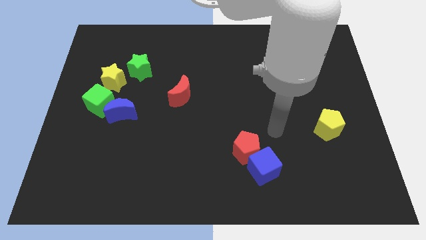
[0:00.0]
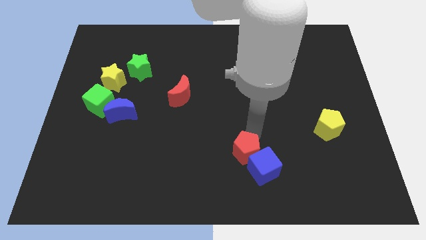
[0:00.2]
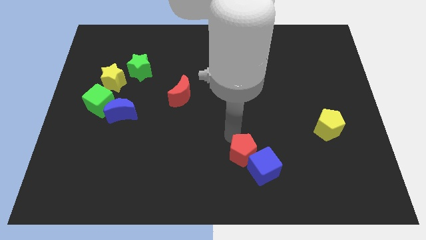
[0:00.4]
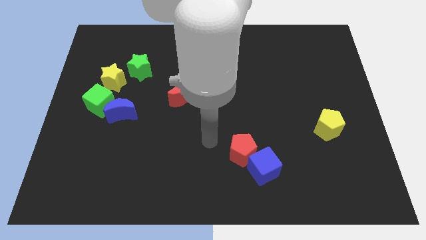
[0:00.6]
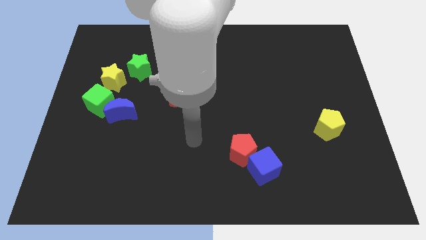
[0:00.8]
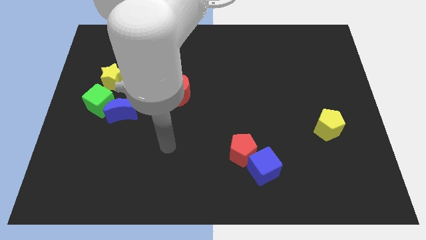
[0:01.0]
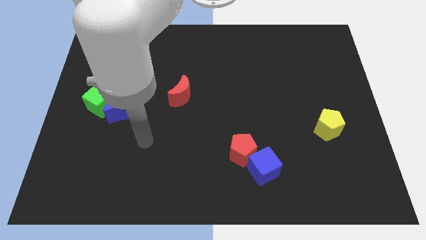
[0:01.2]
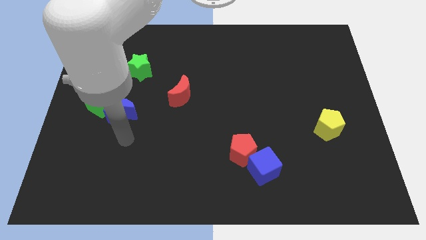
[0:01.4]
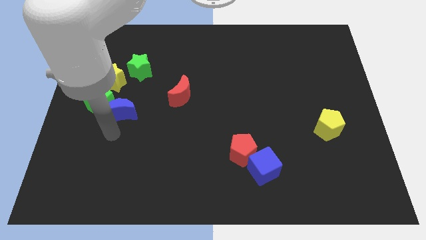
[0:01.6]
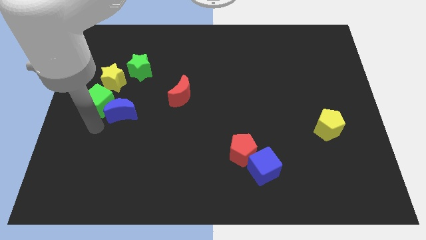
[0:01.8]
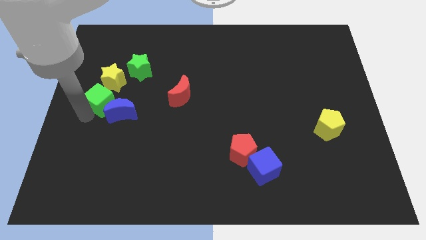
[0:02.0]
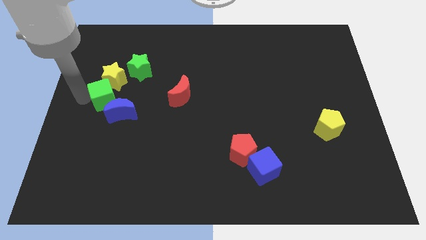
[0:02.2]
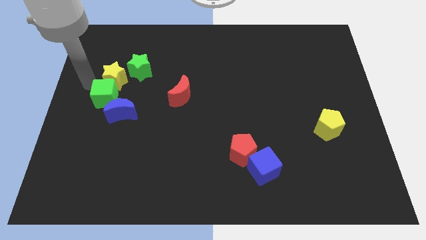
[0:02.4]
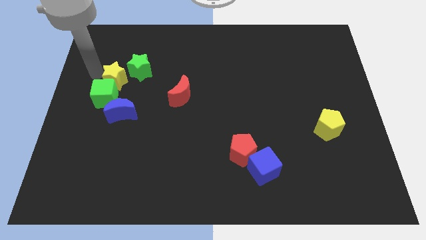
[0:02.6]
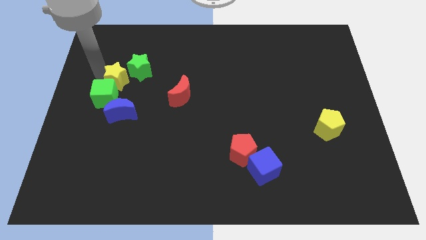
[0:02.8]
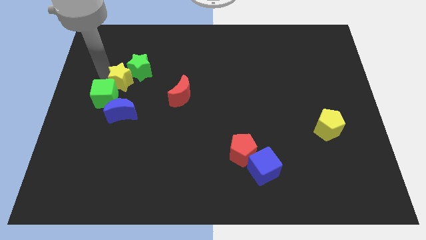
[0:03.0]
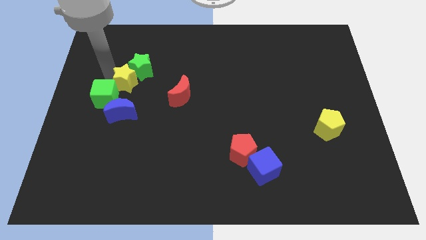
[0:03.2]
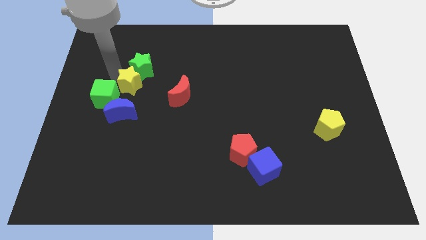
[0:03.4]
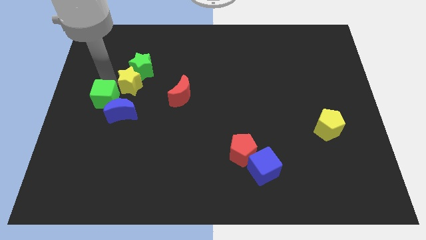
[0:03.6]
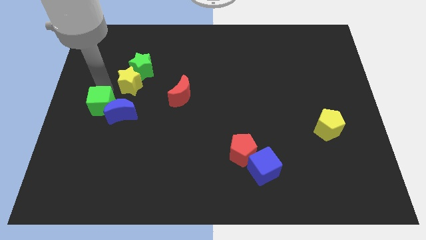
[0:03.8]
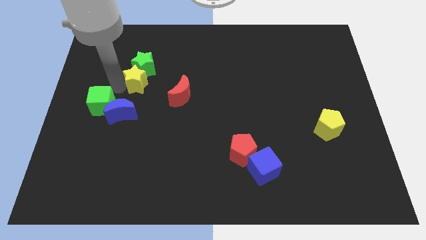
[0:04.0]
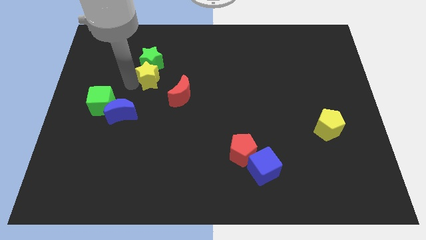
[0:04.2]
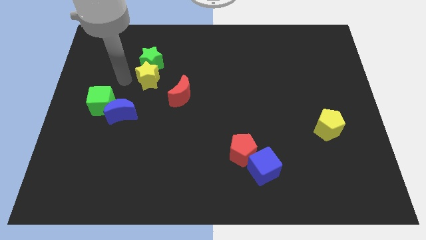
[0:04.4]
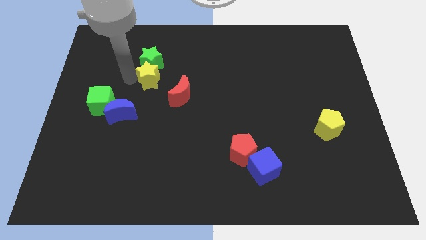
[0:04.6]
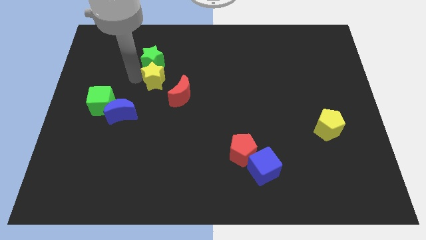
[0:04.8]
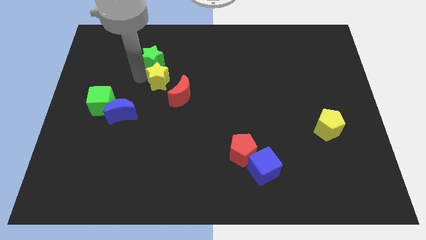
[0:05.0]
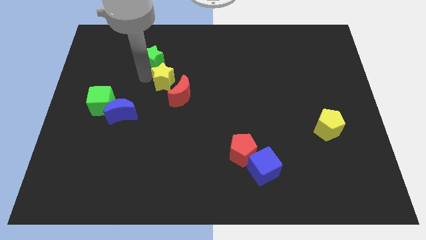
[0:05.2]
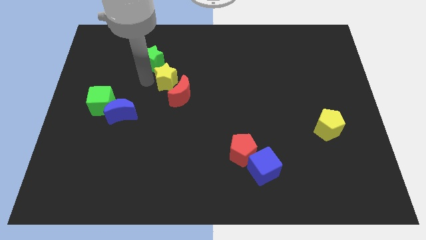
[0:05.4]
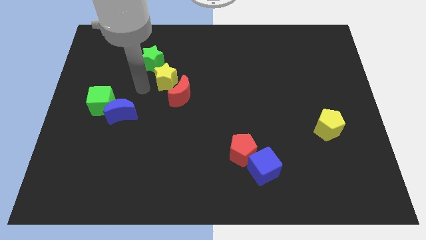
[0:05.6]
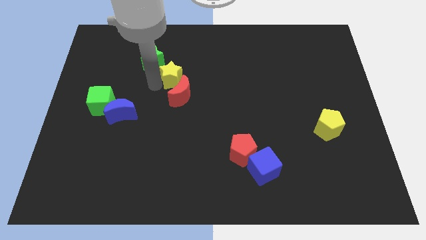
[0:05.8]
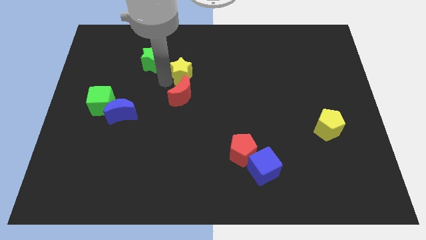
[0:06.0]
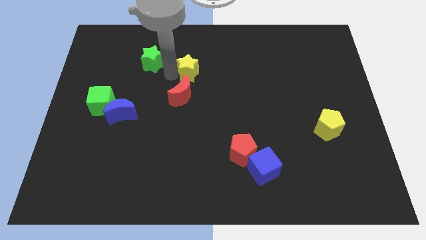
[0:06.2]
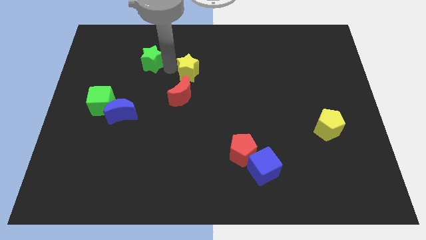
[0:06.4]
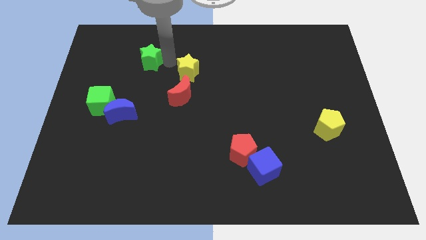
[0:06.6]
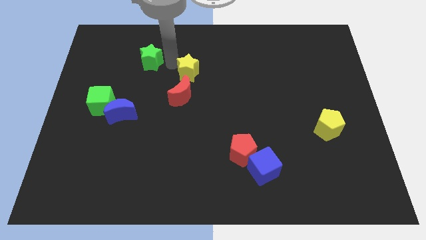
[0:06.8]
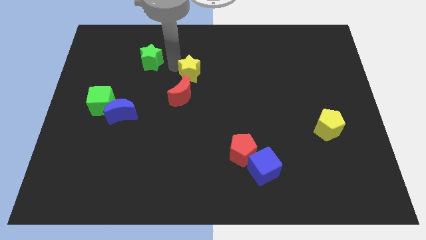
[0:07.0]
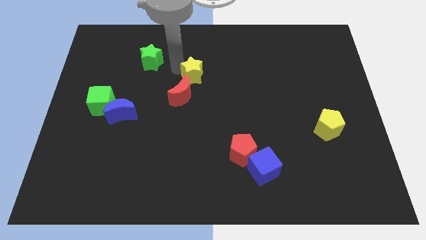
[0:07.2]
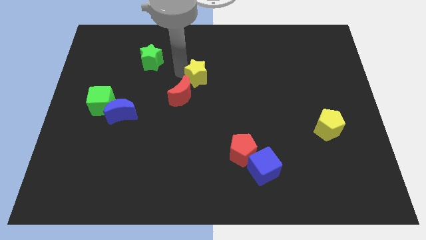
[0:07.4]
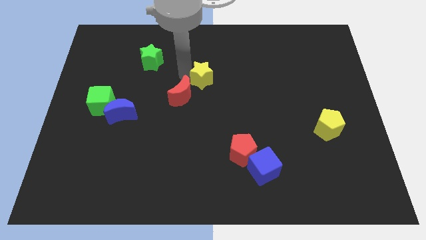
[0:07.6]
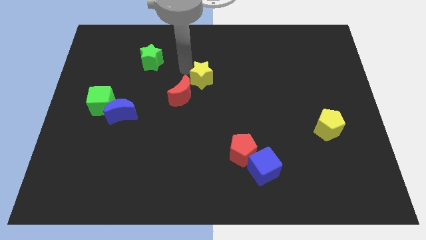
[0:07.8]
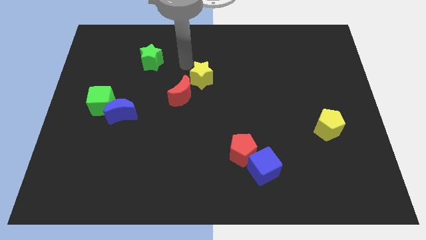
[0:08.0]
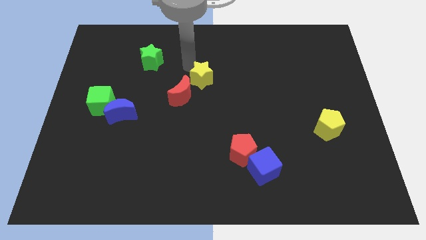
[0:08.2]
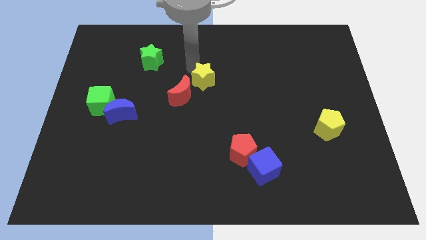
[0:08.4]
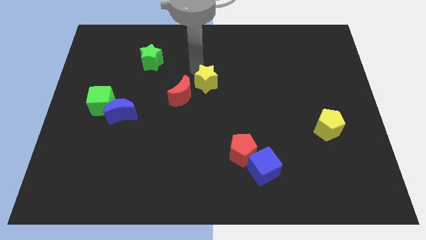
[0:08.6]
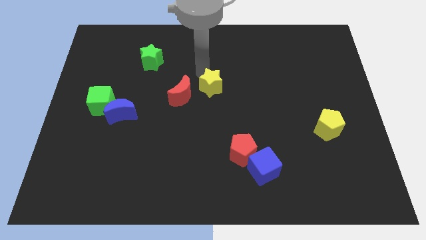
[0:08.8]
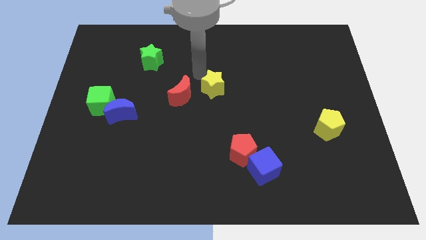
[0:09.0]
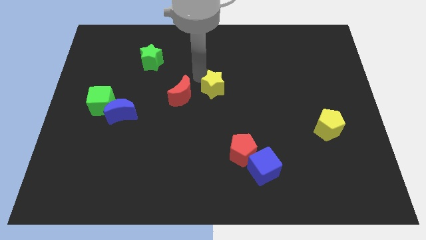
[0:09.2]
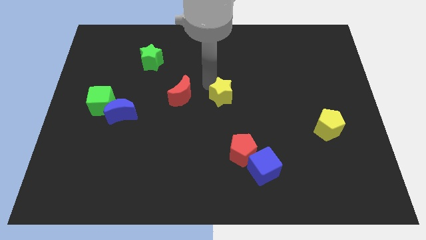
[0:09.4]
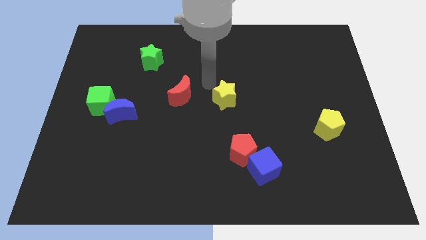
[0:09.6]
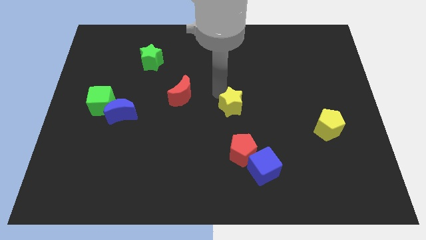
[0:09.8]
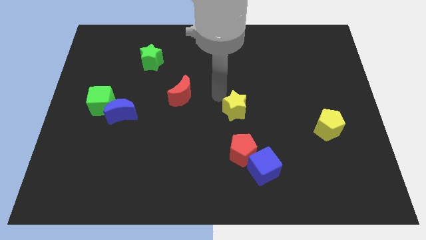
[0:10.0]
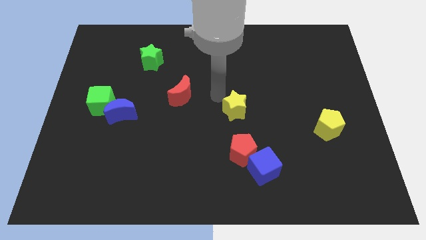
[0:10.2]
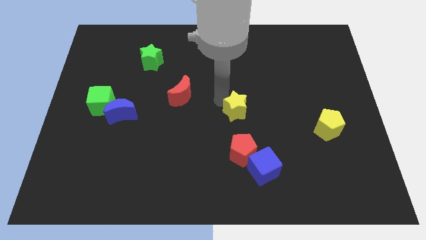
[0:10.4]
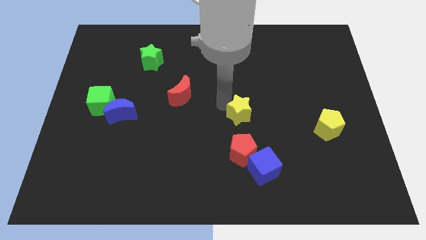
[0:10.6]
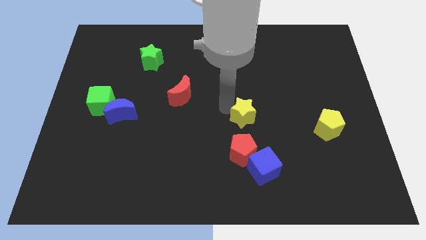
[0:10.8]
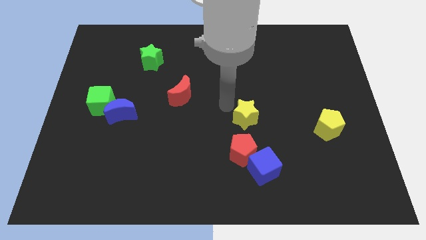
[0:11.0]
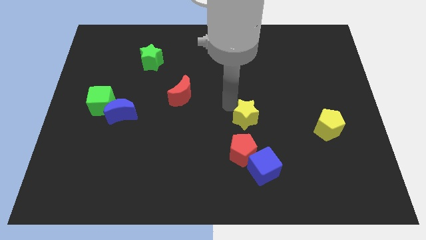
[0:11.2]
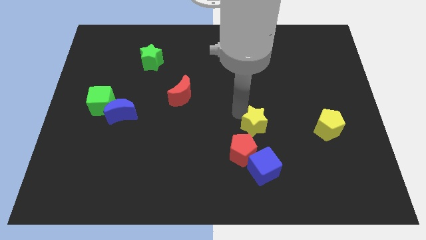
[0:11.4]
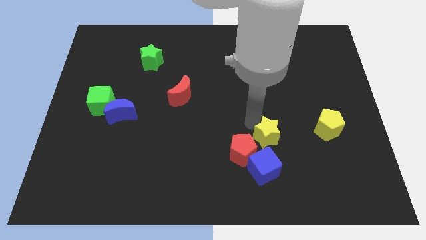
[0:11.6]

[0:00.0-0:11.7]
put the yellow star to the top right of the blue cube

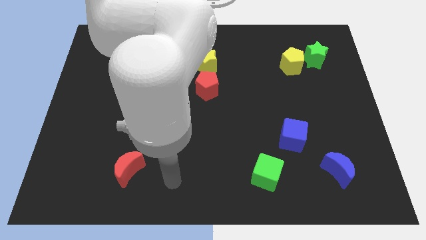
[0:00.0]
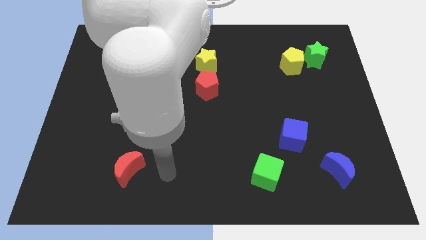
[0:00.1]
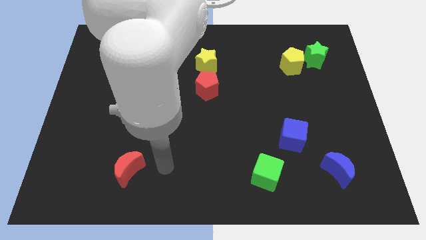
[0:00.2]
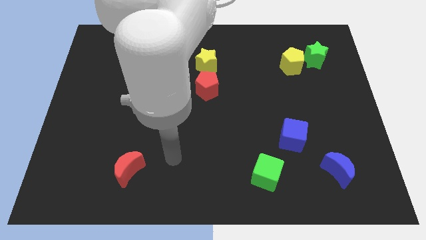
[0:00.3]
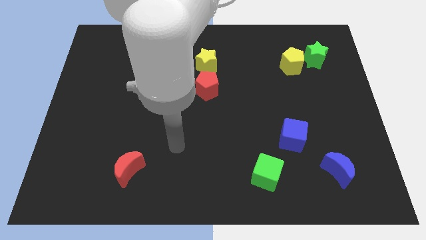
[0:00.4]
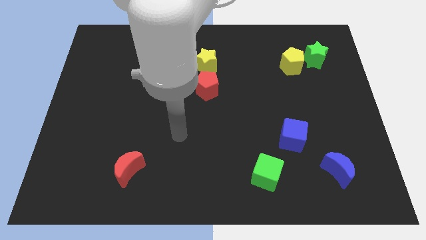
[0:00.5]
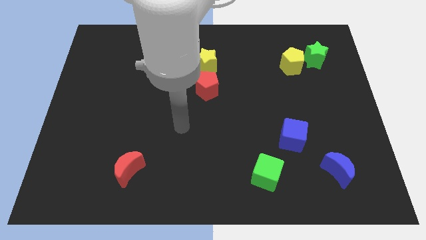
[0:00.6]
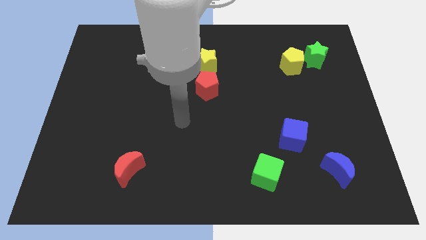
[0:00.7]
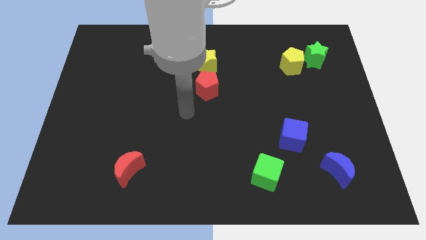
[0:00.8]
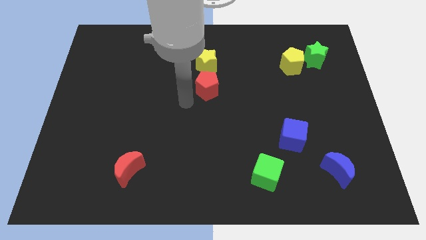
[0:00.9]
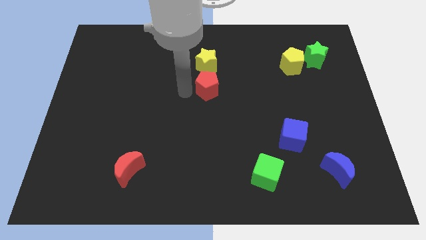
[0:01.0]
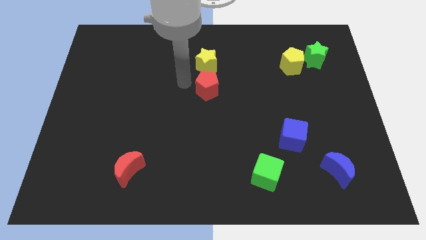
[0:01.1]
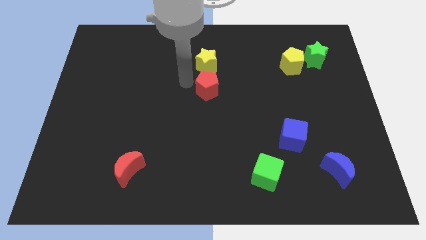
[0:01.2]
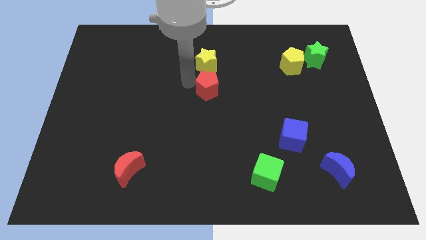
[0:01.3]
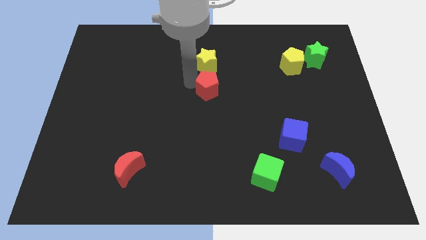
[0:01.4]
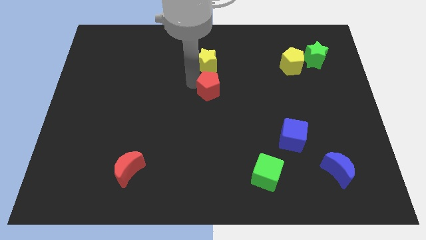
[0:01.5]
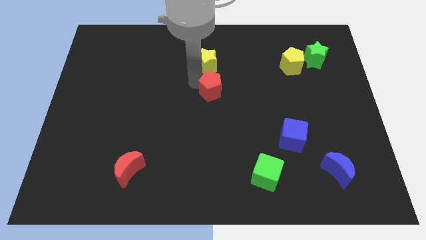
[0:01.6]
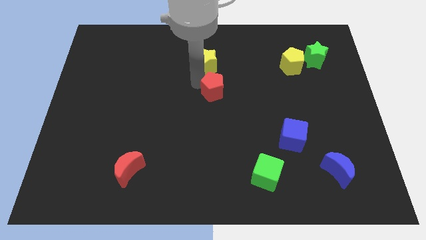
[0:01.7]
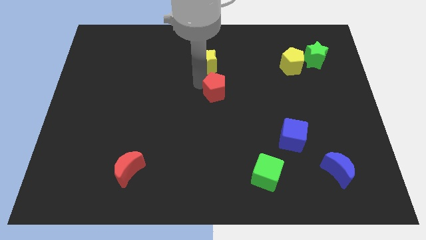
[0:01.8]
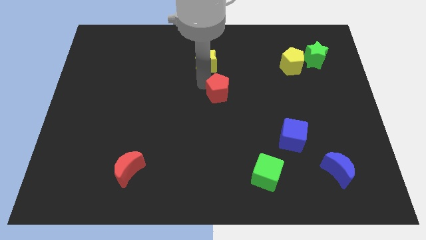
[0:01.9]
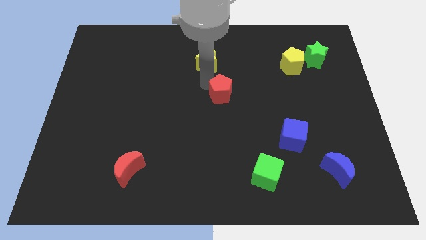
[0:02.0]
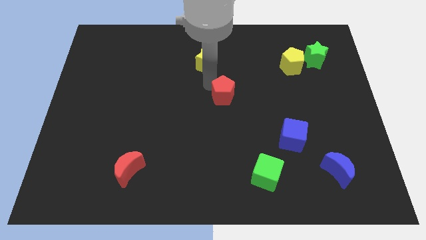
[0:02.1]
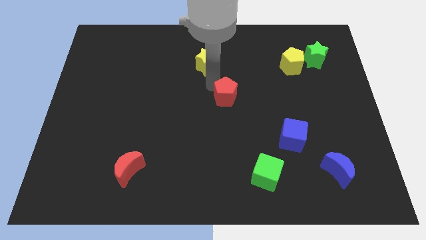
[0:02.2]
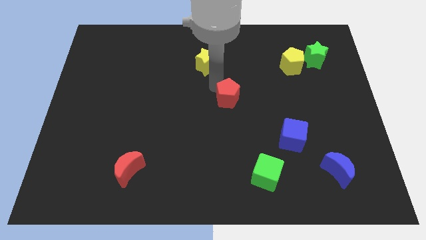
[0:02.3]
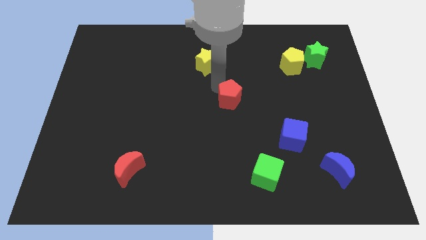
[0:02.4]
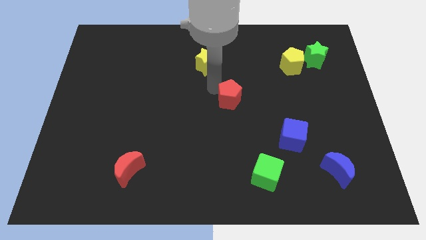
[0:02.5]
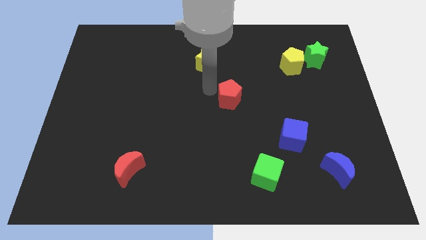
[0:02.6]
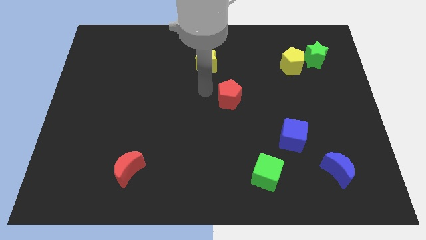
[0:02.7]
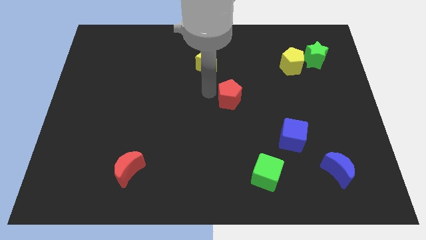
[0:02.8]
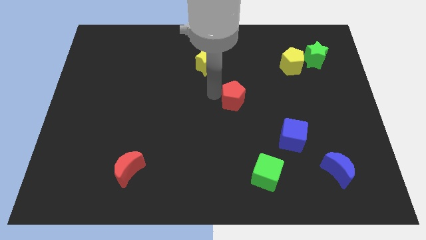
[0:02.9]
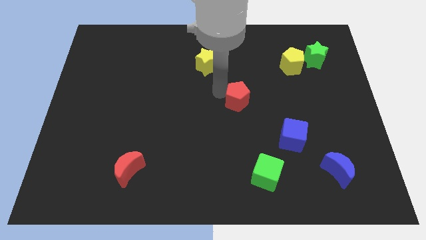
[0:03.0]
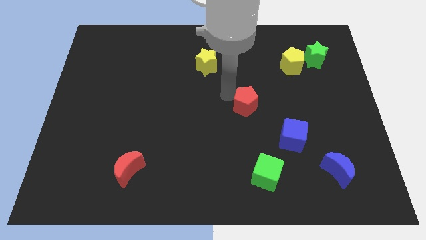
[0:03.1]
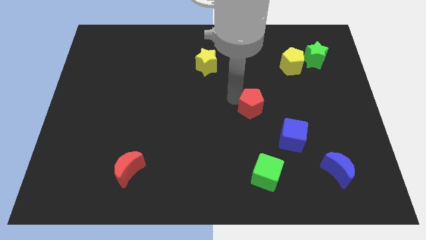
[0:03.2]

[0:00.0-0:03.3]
move the red pentagon to the top left side of the blue cube
